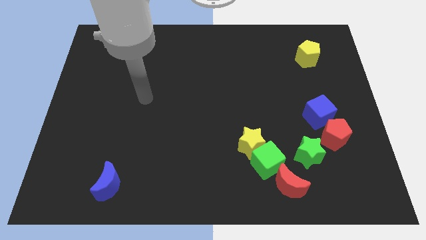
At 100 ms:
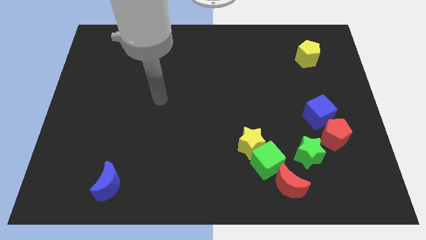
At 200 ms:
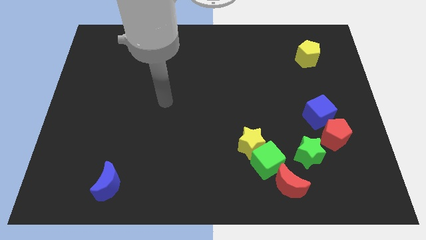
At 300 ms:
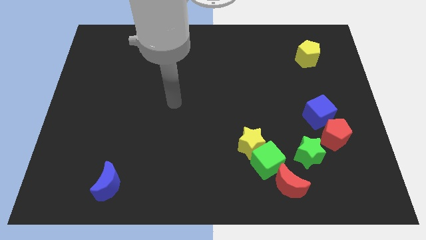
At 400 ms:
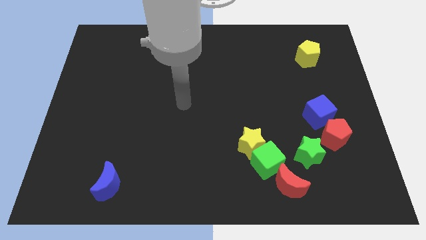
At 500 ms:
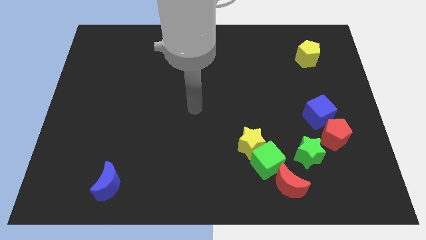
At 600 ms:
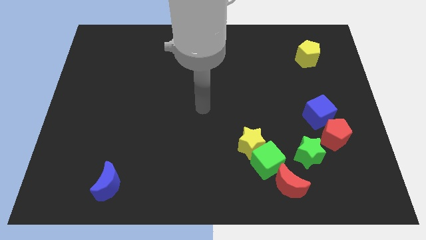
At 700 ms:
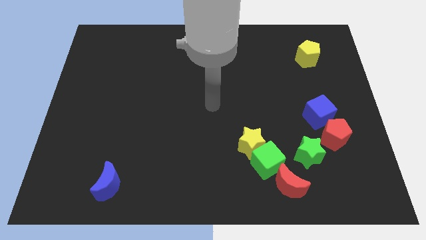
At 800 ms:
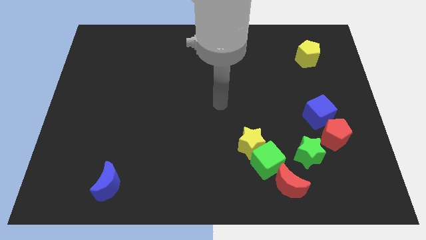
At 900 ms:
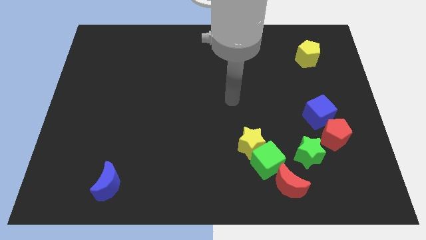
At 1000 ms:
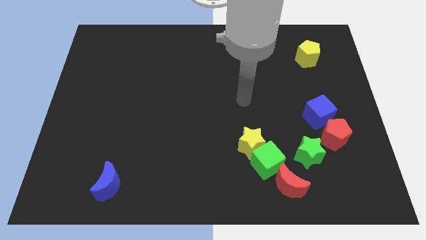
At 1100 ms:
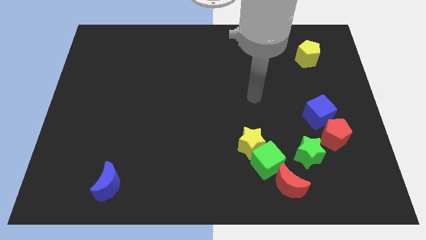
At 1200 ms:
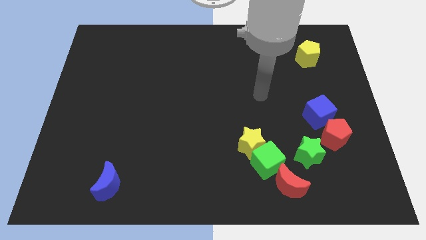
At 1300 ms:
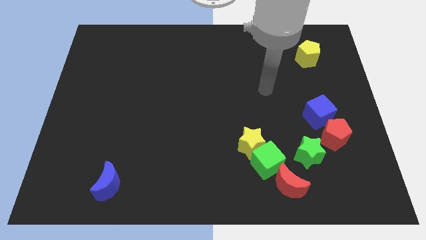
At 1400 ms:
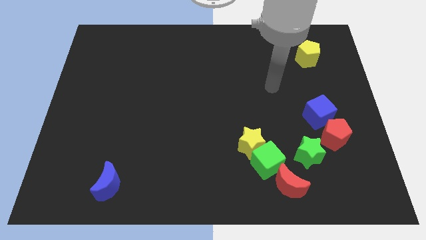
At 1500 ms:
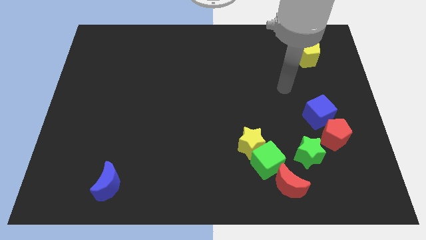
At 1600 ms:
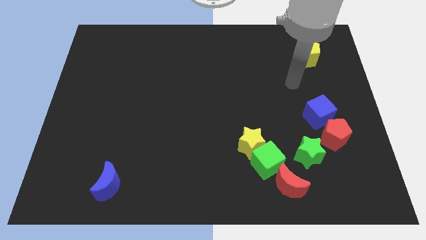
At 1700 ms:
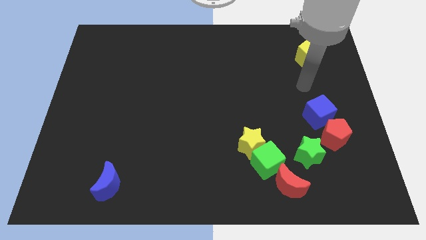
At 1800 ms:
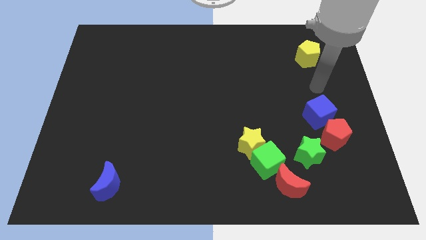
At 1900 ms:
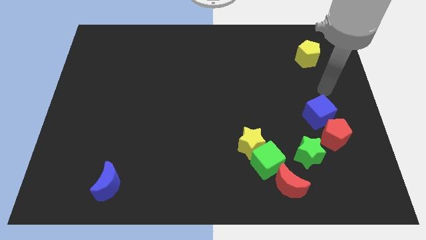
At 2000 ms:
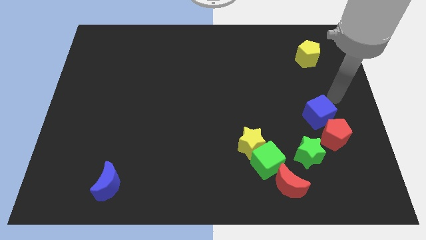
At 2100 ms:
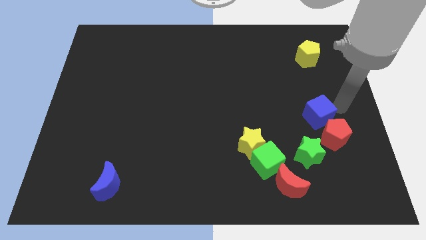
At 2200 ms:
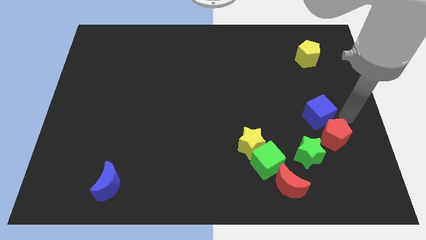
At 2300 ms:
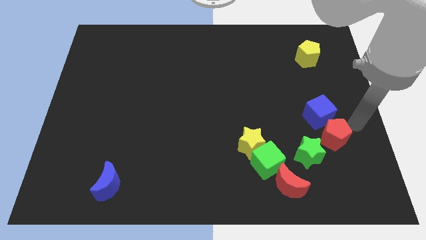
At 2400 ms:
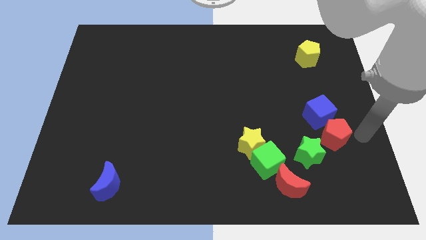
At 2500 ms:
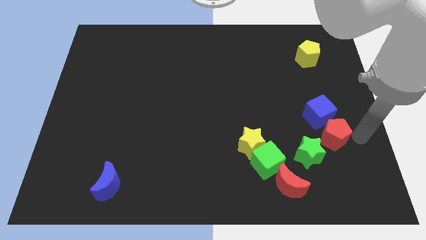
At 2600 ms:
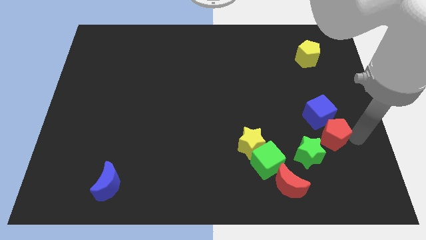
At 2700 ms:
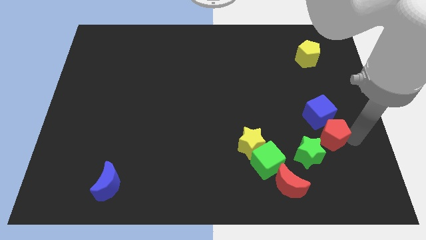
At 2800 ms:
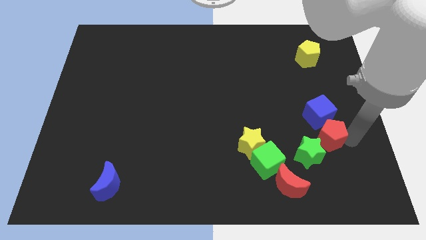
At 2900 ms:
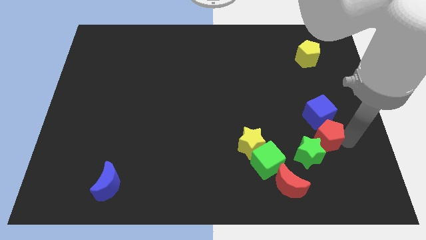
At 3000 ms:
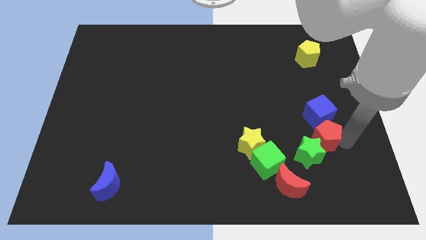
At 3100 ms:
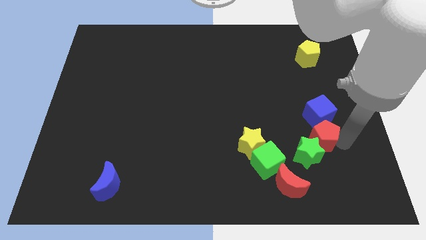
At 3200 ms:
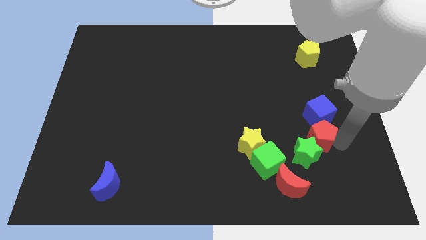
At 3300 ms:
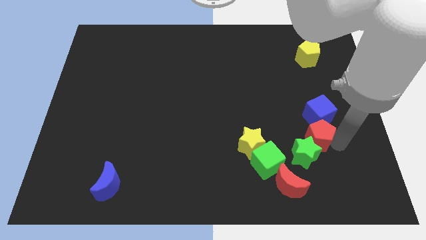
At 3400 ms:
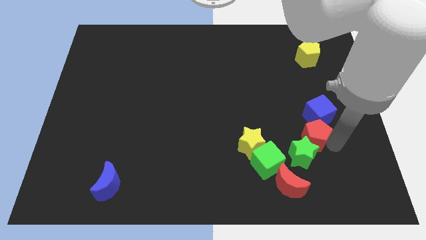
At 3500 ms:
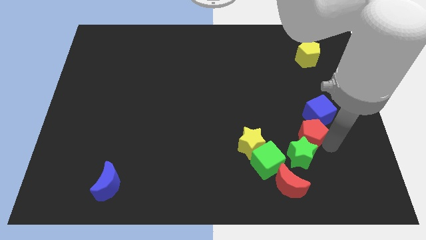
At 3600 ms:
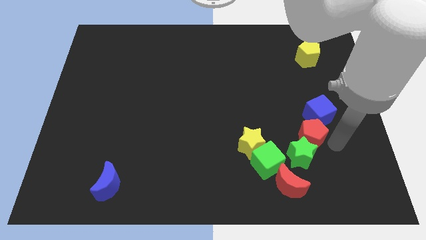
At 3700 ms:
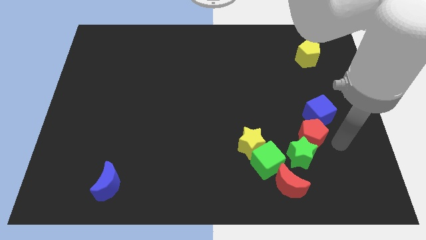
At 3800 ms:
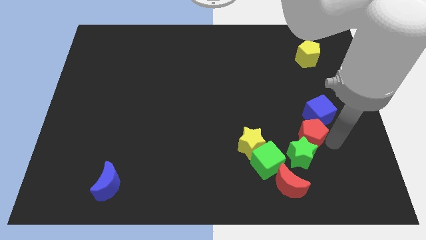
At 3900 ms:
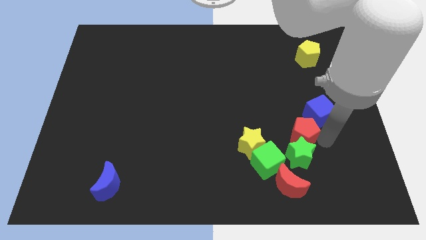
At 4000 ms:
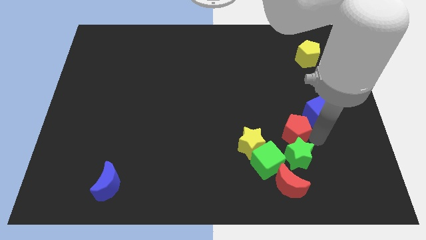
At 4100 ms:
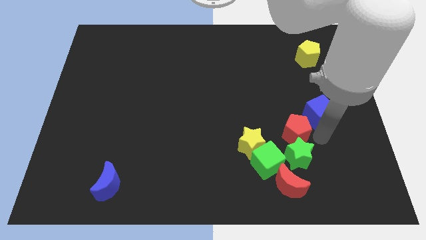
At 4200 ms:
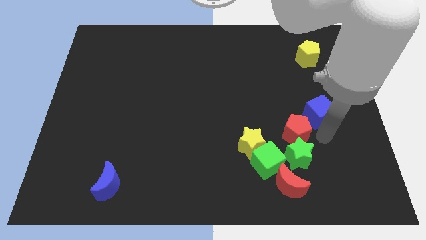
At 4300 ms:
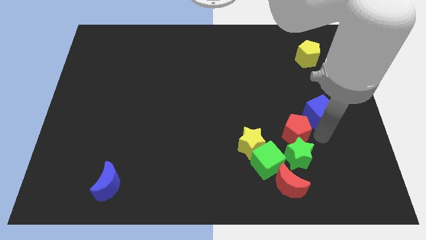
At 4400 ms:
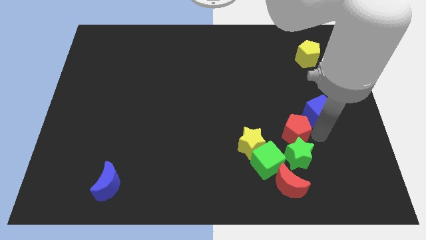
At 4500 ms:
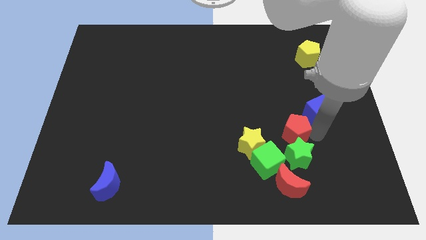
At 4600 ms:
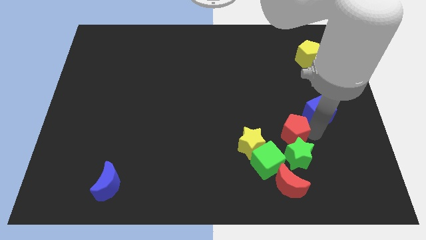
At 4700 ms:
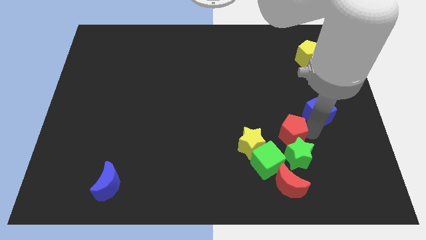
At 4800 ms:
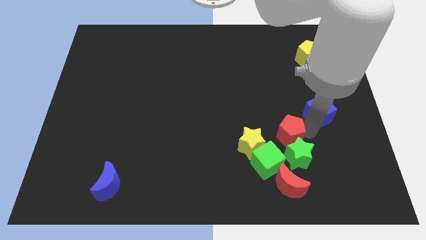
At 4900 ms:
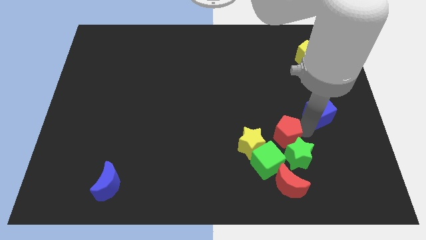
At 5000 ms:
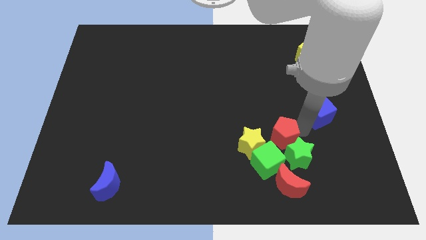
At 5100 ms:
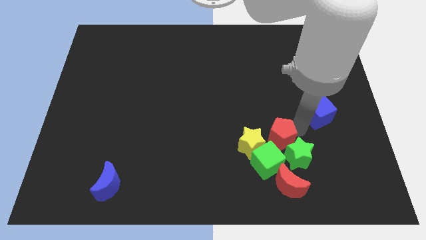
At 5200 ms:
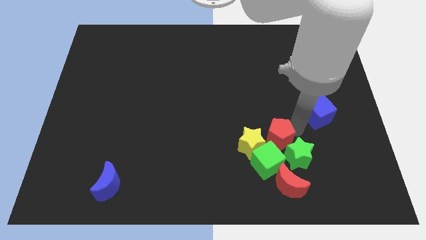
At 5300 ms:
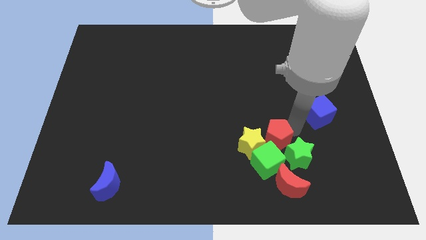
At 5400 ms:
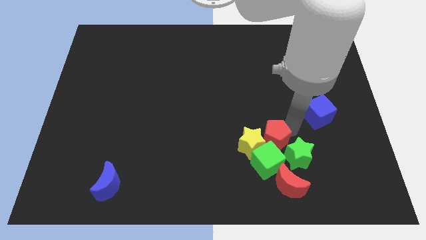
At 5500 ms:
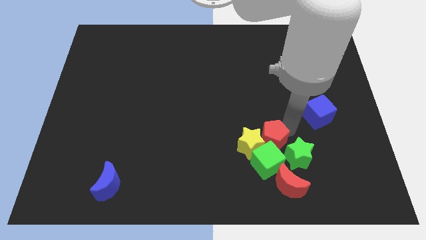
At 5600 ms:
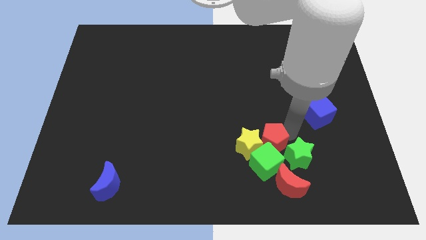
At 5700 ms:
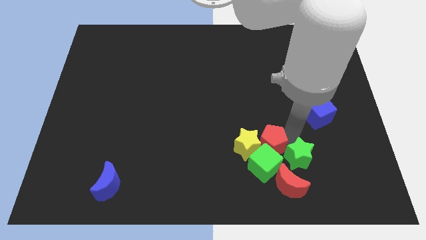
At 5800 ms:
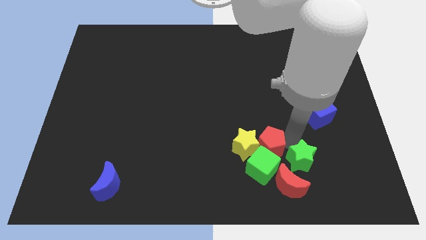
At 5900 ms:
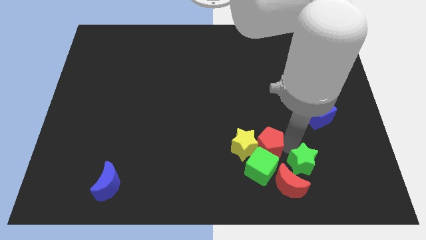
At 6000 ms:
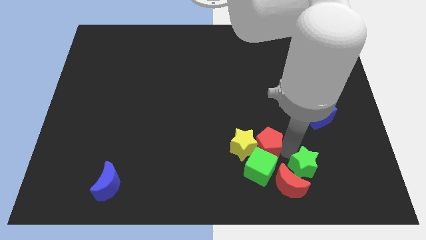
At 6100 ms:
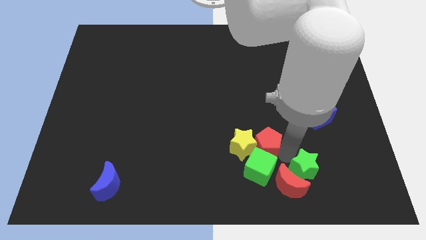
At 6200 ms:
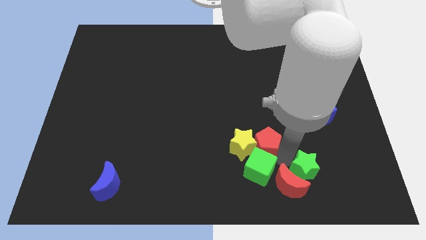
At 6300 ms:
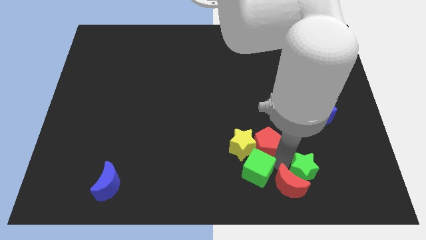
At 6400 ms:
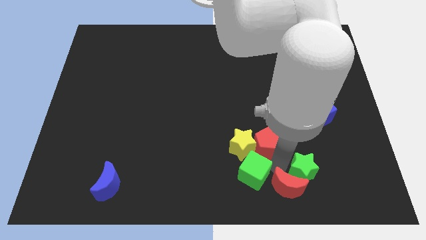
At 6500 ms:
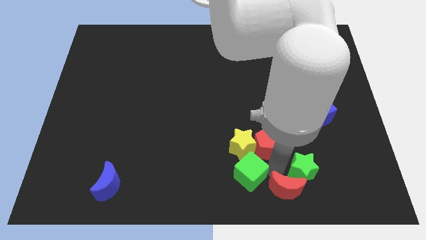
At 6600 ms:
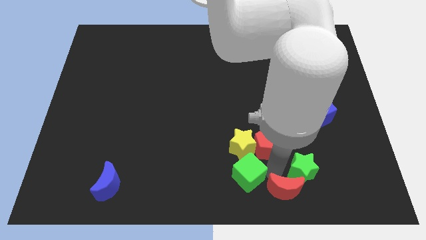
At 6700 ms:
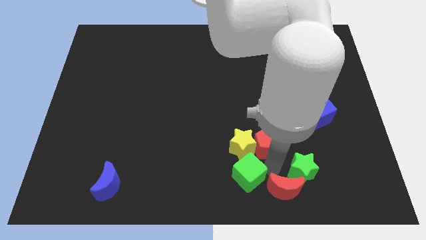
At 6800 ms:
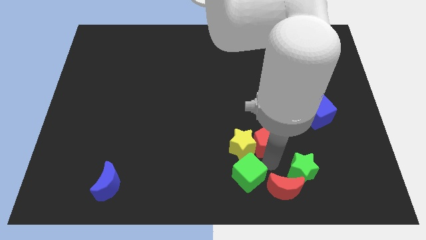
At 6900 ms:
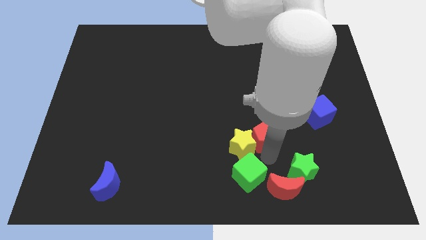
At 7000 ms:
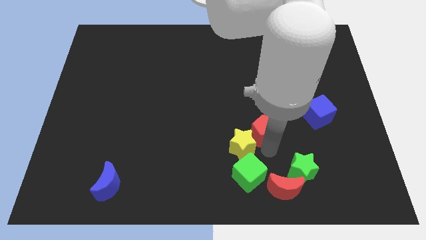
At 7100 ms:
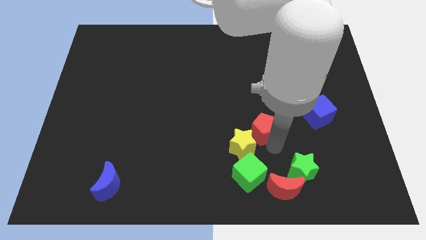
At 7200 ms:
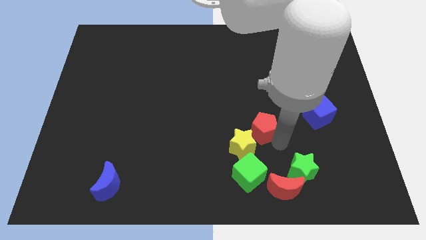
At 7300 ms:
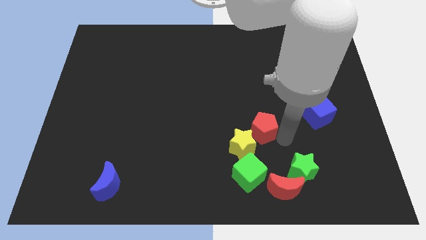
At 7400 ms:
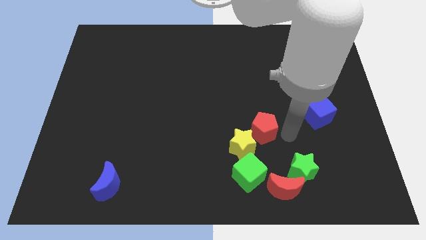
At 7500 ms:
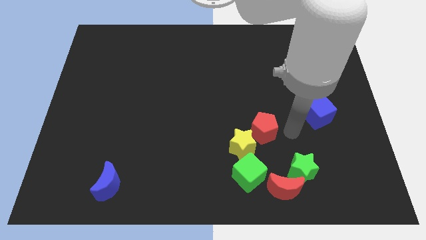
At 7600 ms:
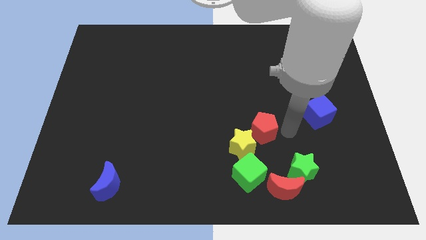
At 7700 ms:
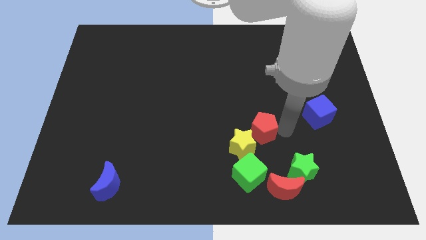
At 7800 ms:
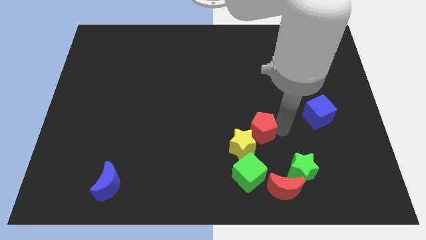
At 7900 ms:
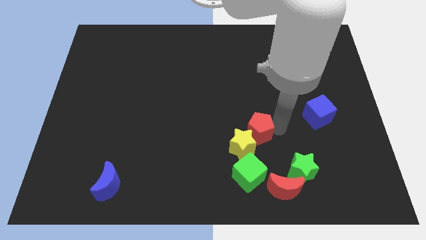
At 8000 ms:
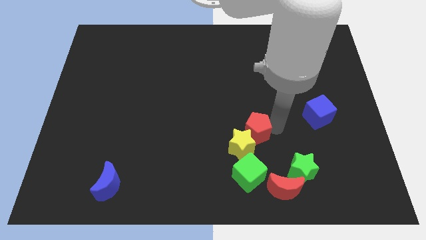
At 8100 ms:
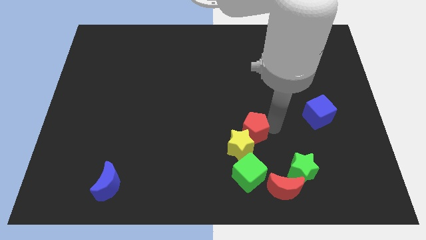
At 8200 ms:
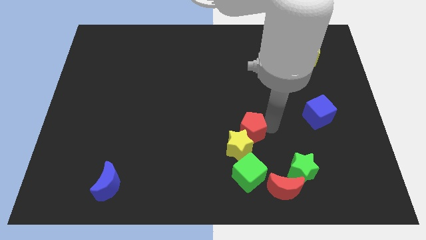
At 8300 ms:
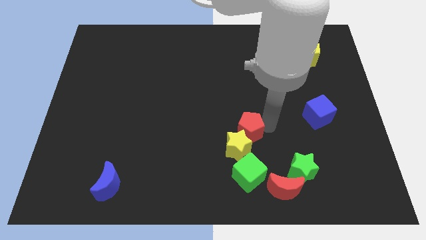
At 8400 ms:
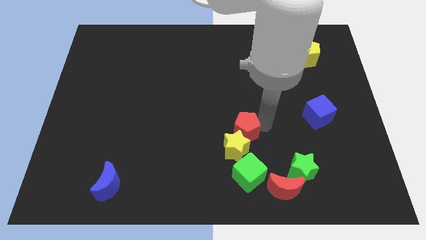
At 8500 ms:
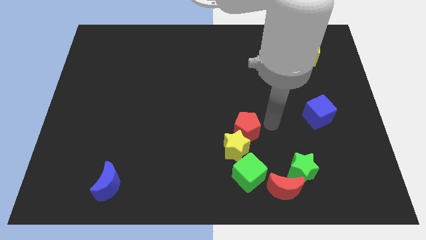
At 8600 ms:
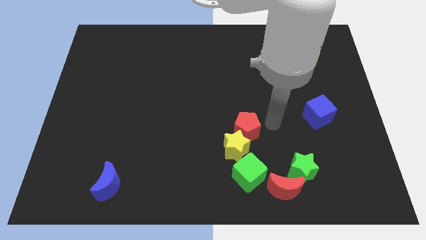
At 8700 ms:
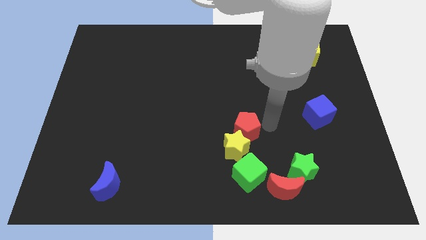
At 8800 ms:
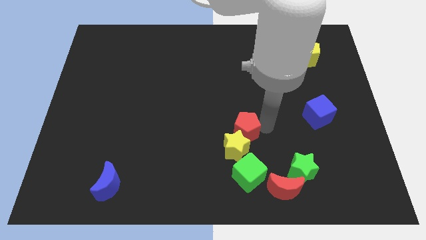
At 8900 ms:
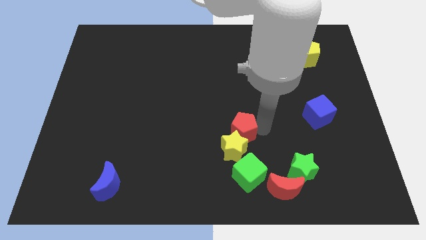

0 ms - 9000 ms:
move the red pentagon to the left
